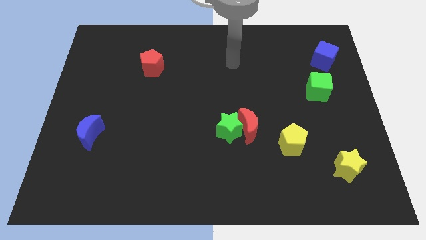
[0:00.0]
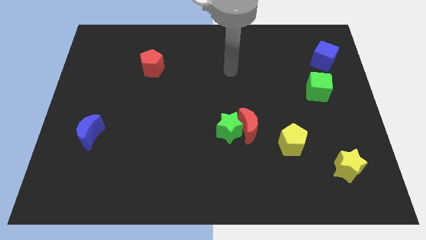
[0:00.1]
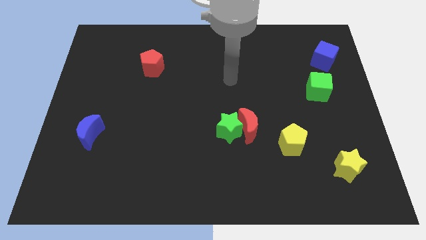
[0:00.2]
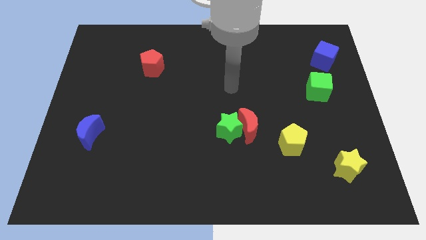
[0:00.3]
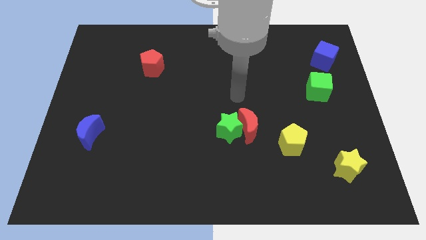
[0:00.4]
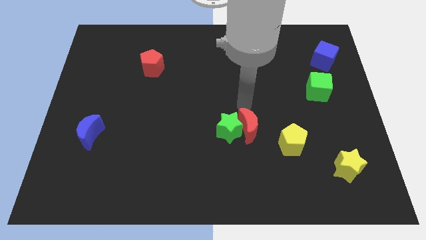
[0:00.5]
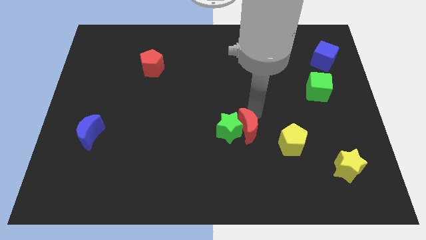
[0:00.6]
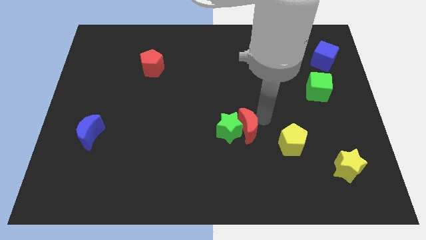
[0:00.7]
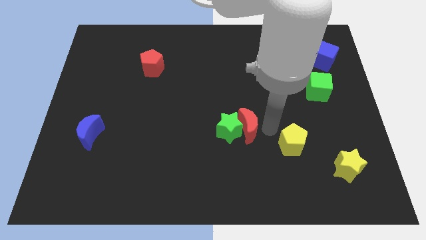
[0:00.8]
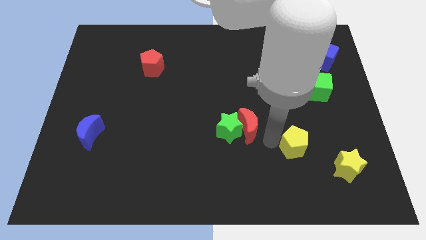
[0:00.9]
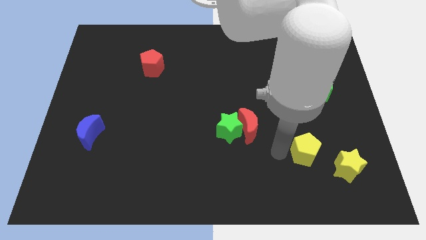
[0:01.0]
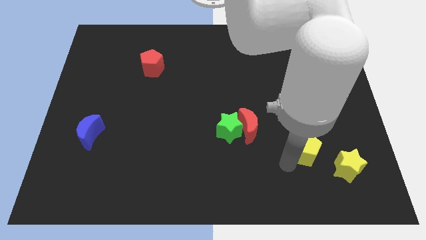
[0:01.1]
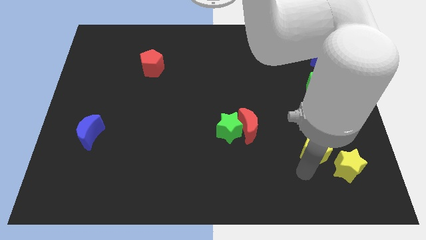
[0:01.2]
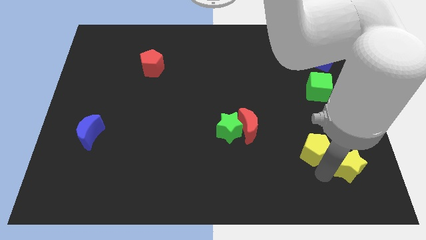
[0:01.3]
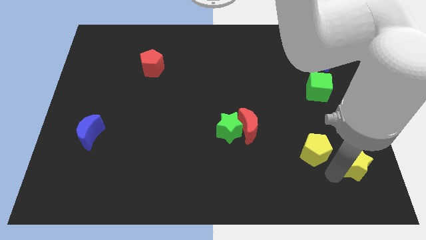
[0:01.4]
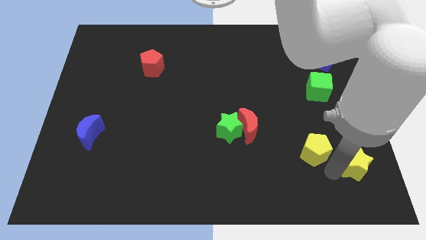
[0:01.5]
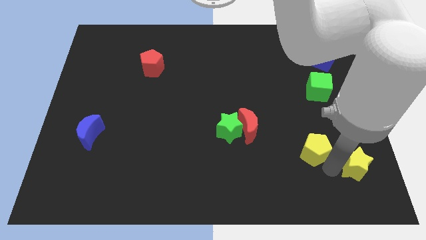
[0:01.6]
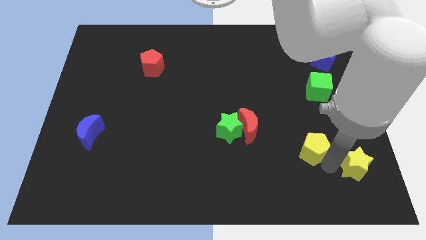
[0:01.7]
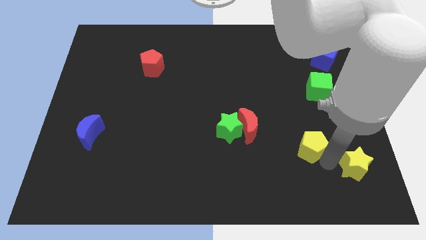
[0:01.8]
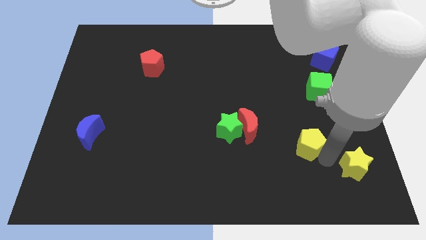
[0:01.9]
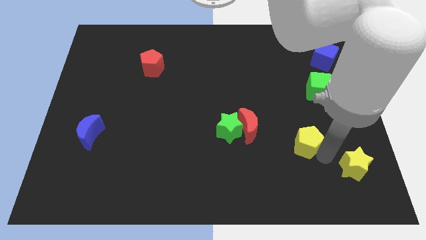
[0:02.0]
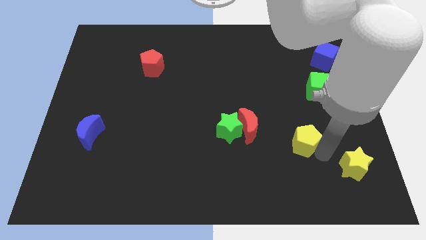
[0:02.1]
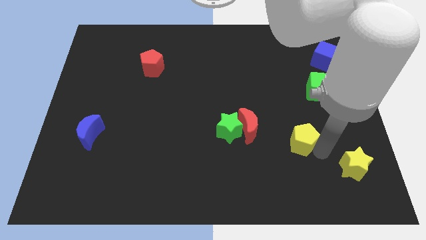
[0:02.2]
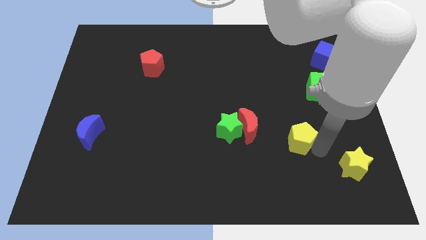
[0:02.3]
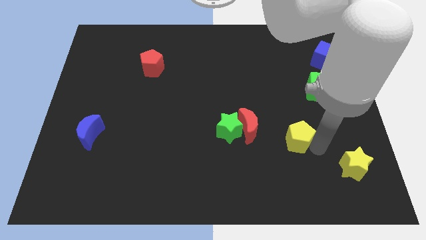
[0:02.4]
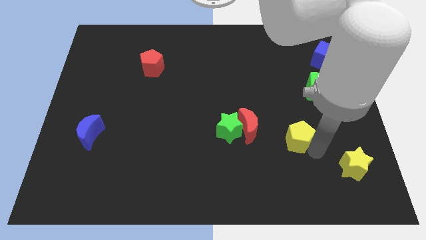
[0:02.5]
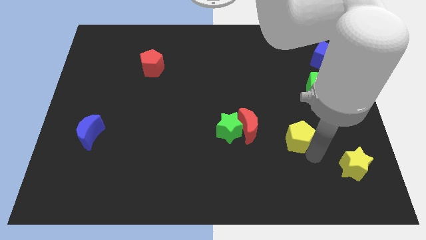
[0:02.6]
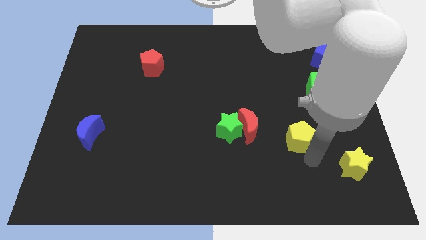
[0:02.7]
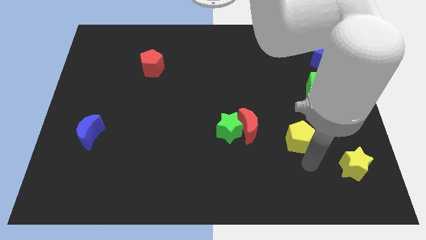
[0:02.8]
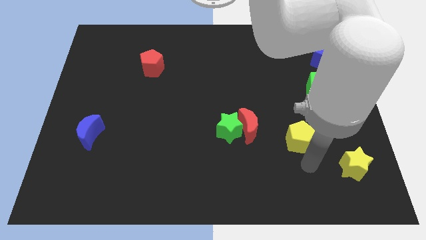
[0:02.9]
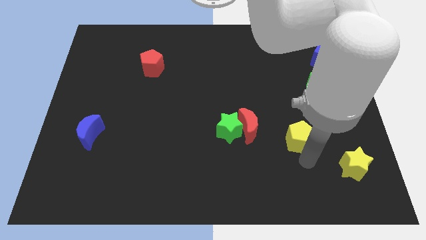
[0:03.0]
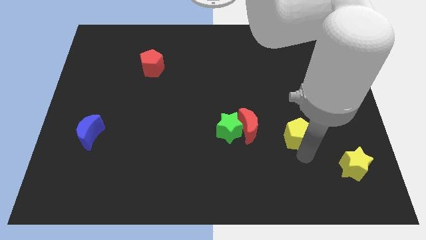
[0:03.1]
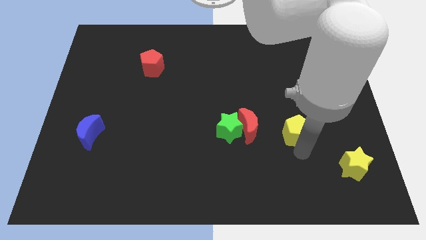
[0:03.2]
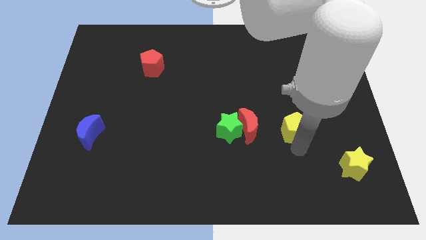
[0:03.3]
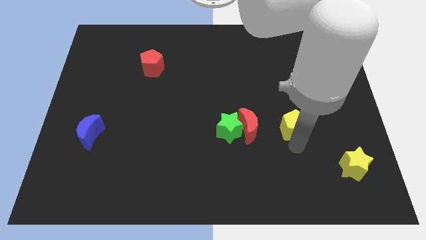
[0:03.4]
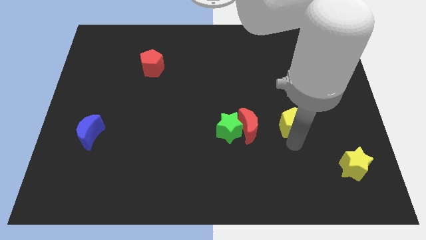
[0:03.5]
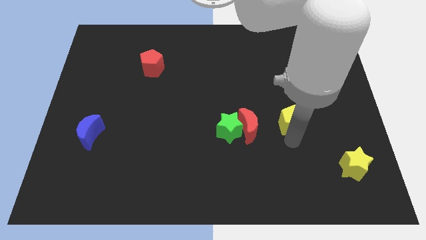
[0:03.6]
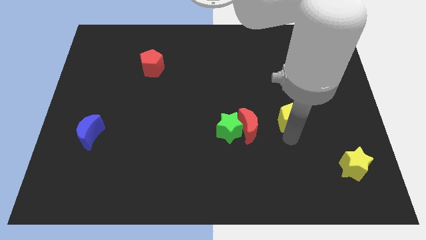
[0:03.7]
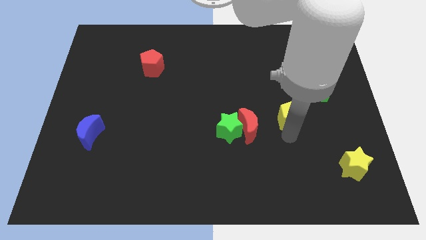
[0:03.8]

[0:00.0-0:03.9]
slightly move the yellow pentagon upwards

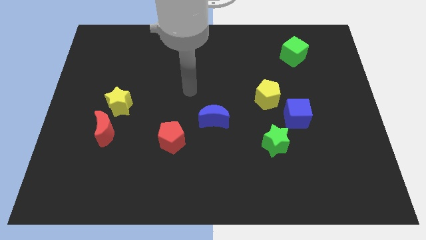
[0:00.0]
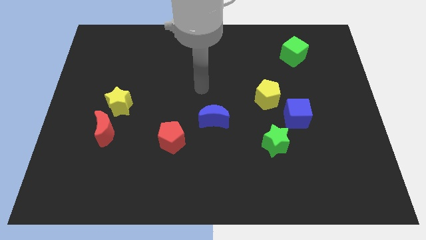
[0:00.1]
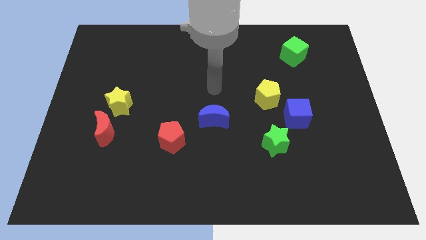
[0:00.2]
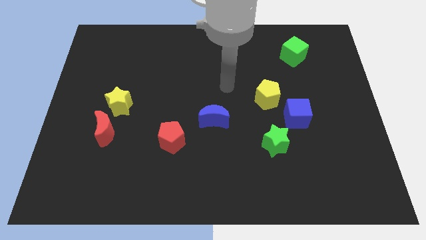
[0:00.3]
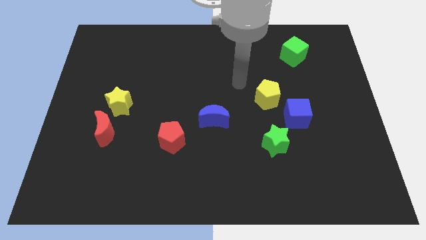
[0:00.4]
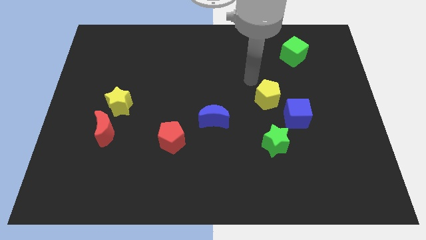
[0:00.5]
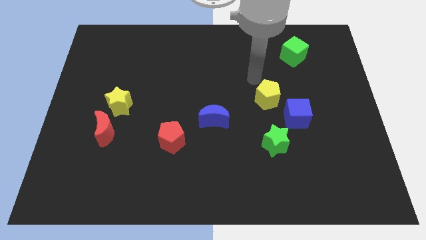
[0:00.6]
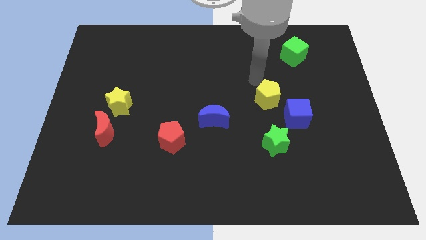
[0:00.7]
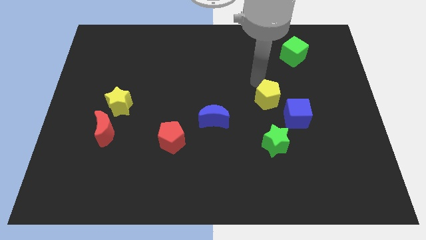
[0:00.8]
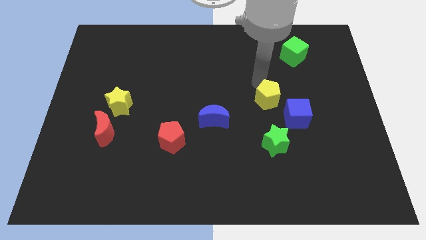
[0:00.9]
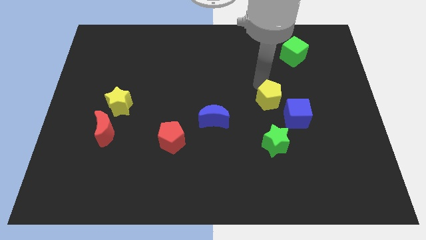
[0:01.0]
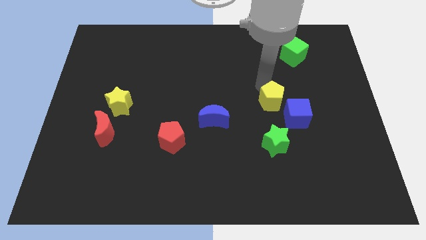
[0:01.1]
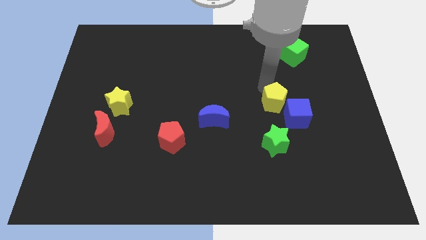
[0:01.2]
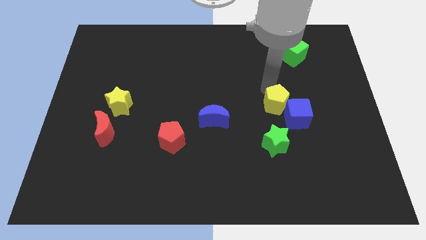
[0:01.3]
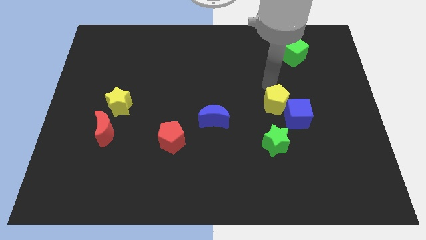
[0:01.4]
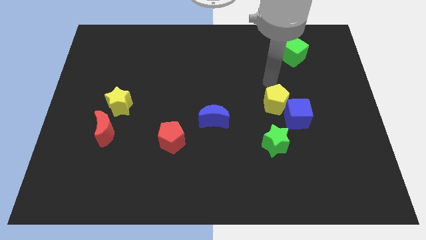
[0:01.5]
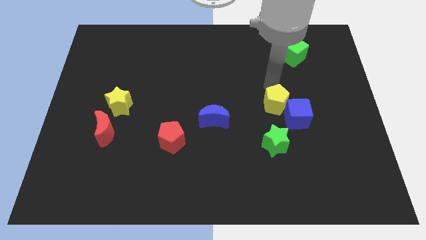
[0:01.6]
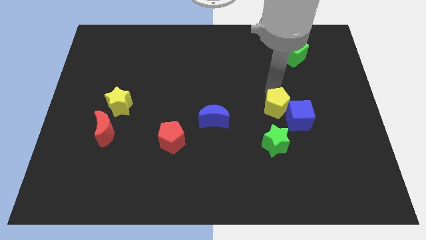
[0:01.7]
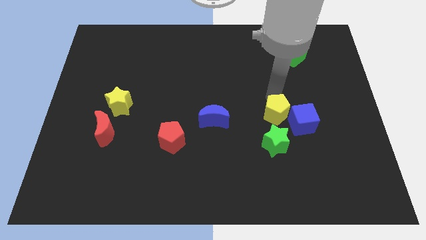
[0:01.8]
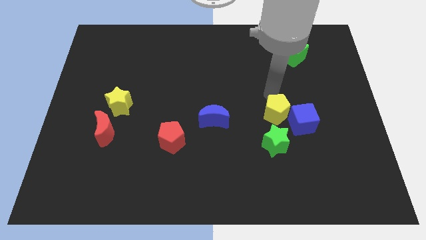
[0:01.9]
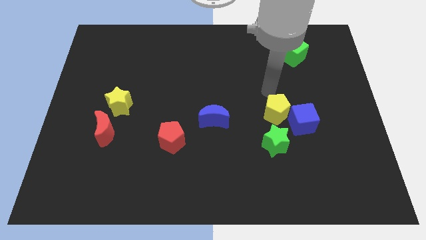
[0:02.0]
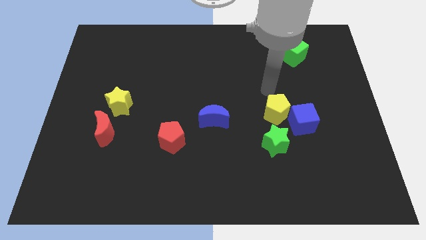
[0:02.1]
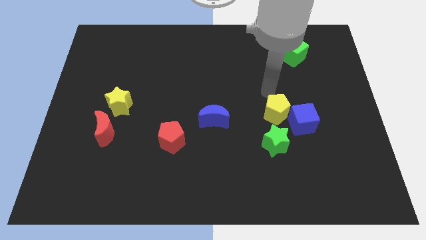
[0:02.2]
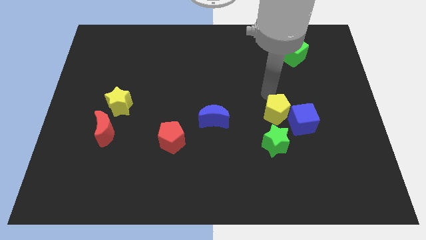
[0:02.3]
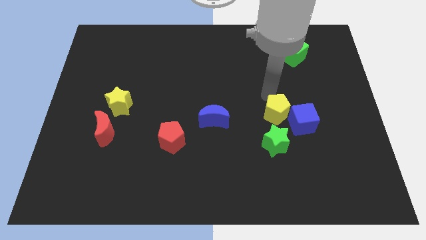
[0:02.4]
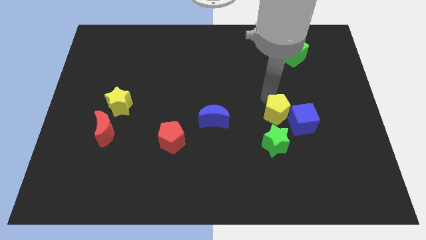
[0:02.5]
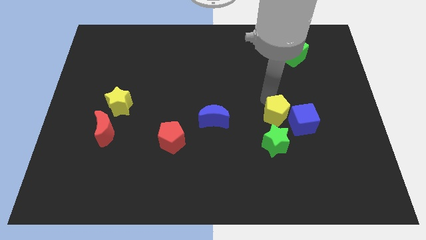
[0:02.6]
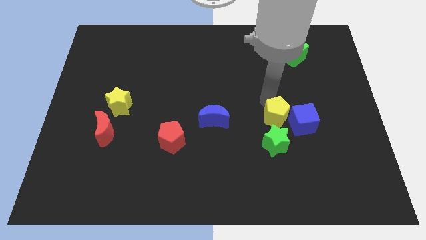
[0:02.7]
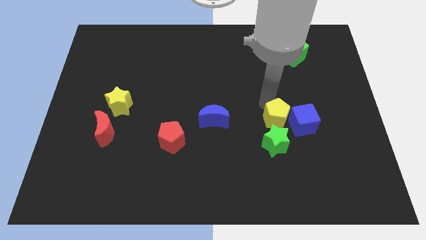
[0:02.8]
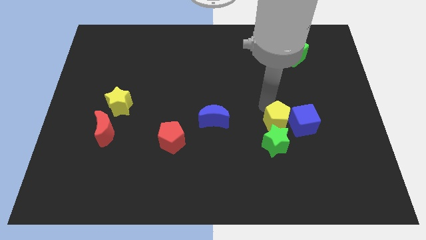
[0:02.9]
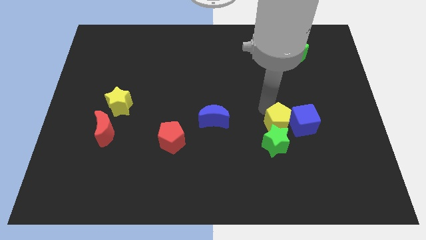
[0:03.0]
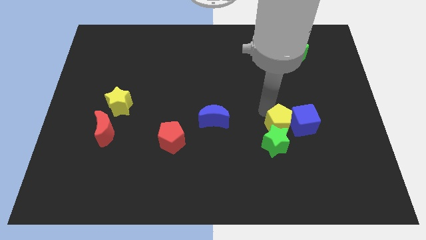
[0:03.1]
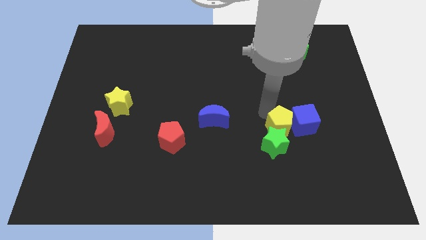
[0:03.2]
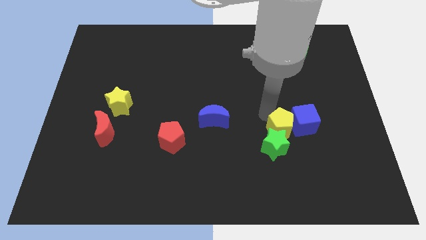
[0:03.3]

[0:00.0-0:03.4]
slightly push the yellow pentagon diagonally down and to the right

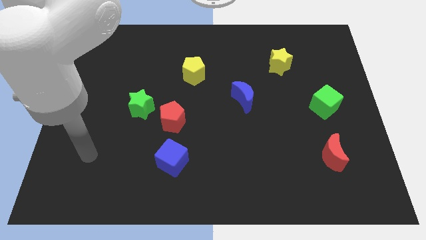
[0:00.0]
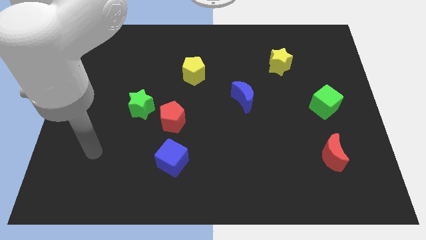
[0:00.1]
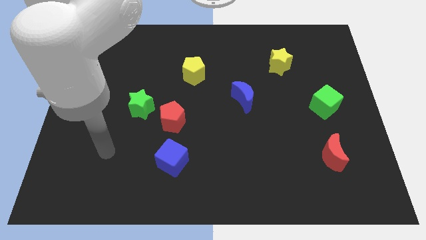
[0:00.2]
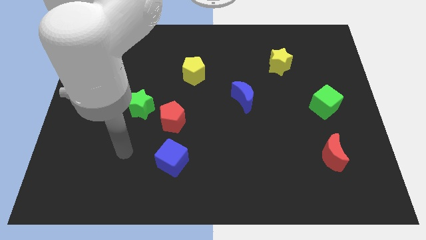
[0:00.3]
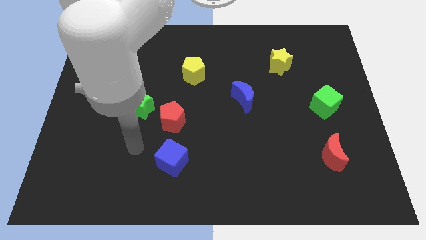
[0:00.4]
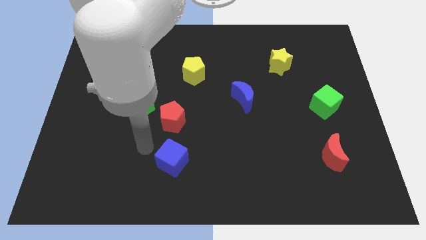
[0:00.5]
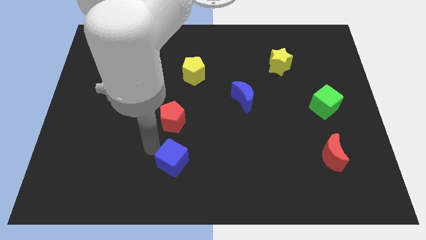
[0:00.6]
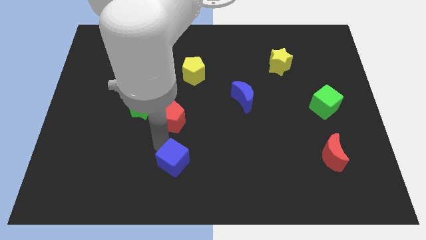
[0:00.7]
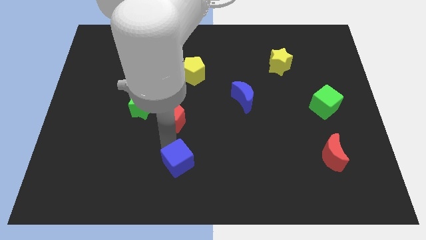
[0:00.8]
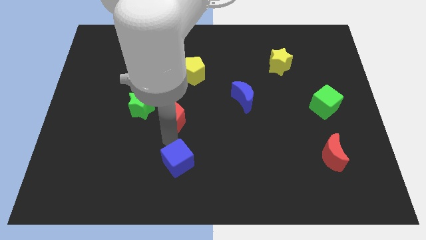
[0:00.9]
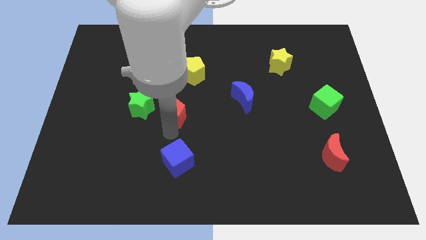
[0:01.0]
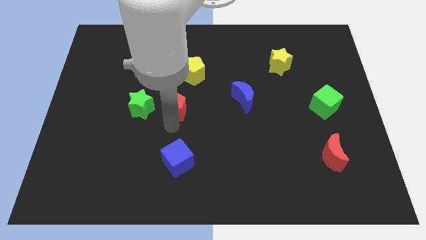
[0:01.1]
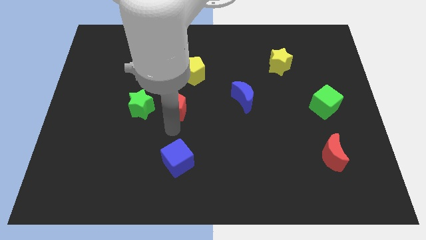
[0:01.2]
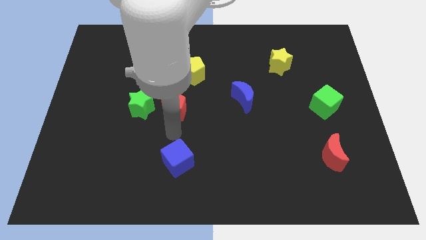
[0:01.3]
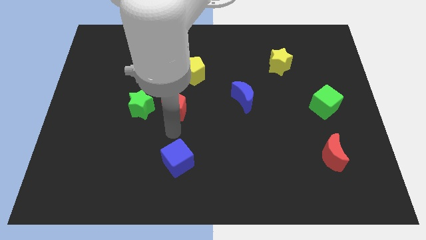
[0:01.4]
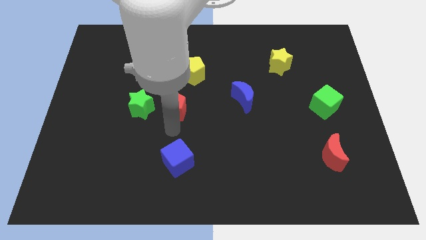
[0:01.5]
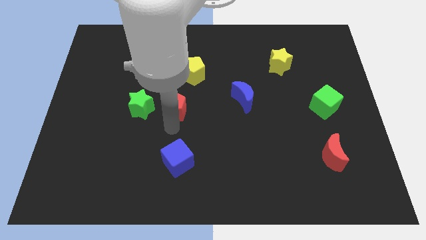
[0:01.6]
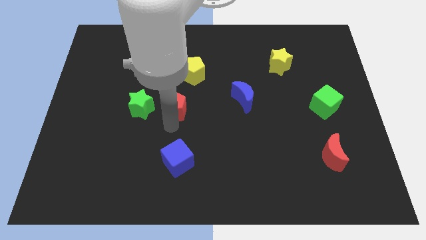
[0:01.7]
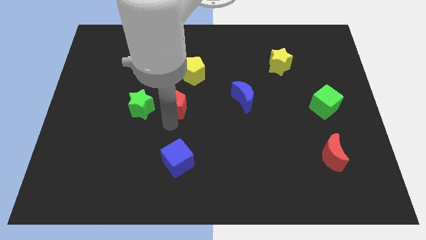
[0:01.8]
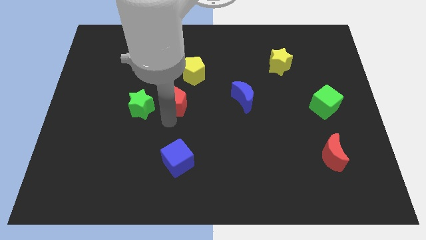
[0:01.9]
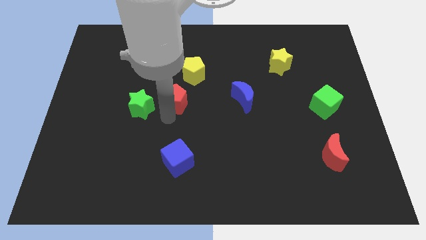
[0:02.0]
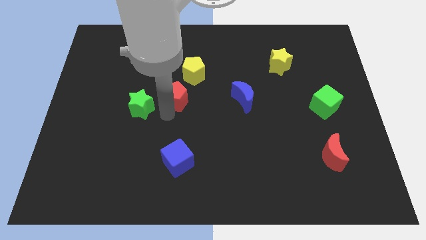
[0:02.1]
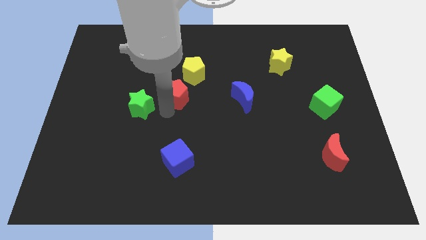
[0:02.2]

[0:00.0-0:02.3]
slide the red pentagon a little upwards
